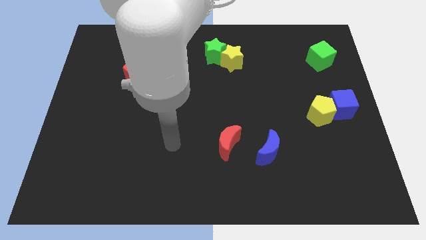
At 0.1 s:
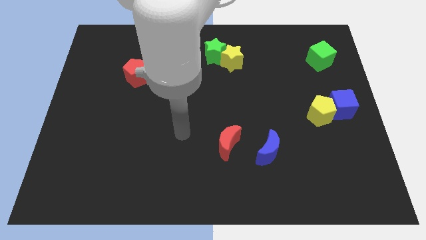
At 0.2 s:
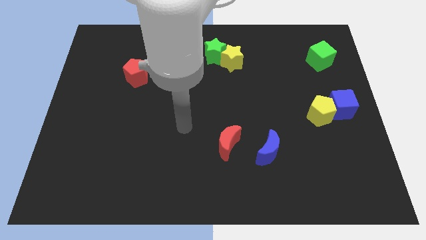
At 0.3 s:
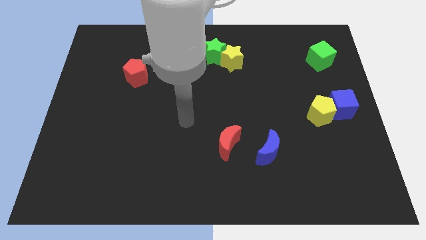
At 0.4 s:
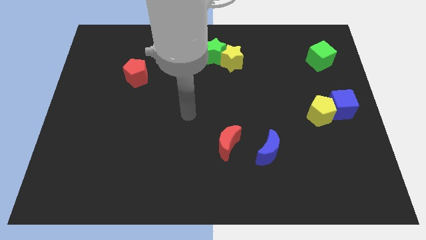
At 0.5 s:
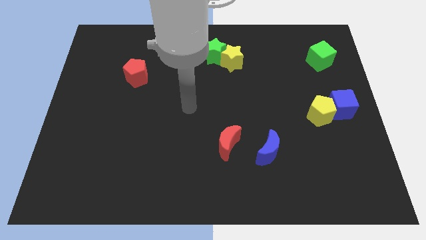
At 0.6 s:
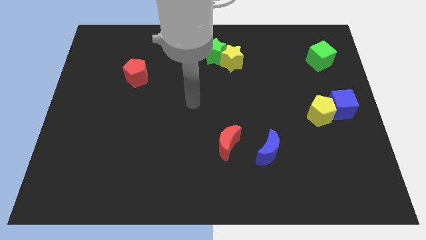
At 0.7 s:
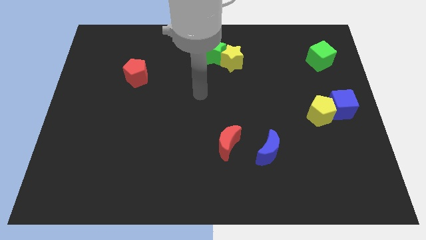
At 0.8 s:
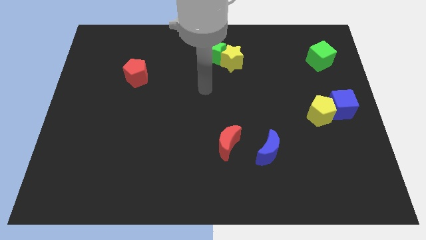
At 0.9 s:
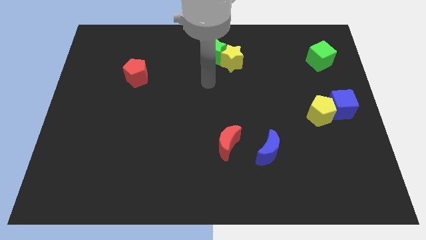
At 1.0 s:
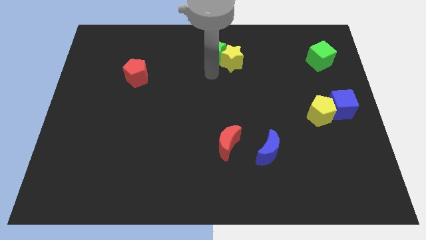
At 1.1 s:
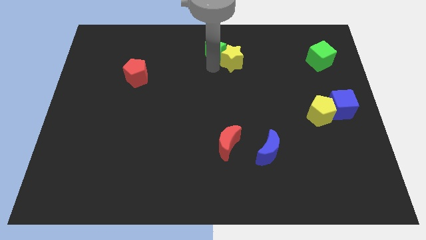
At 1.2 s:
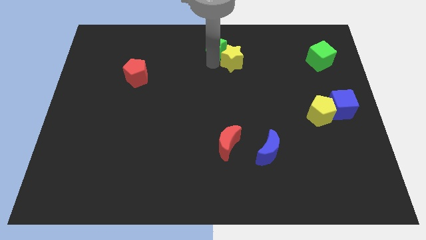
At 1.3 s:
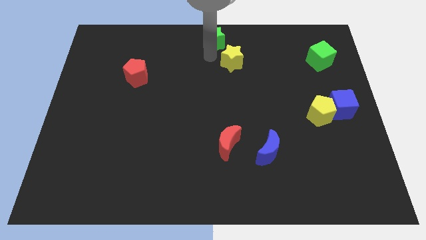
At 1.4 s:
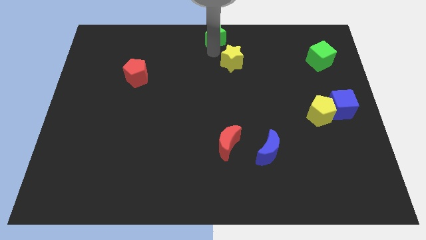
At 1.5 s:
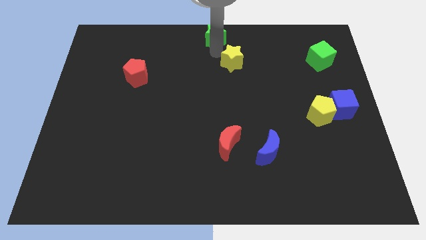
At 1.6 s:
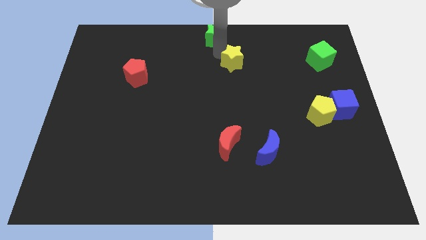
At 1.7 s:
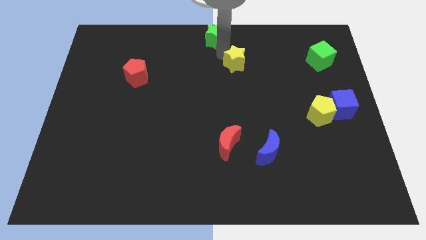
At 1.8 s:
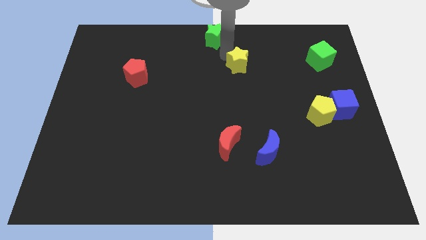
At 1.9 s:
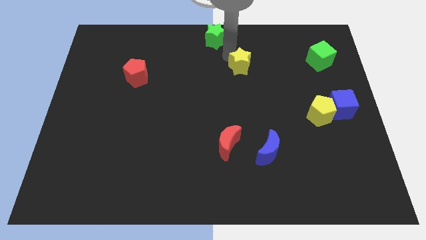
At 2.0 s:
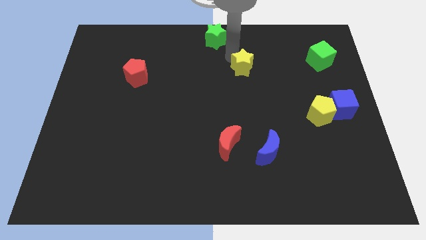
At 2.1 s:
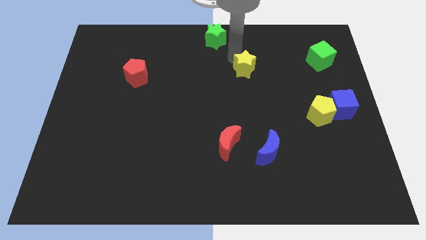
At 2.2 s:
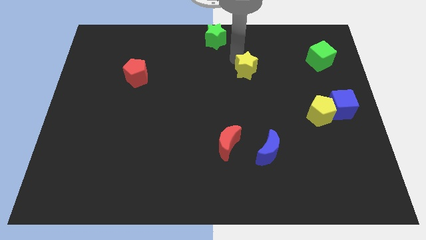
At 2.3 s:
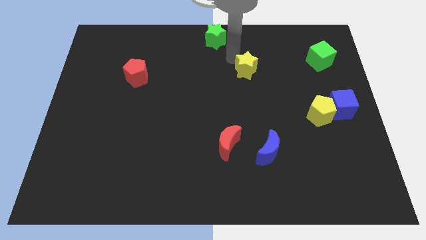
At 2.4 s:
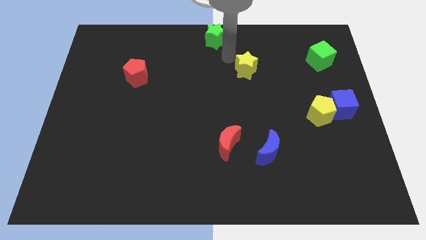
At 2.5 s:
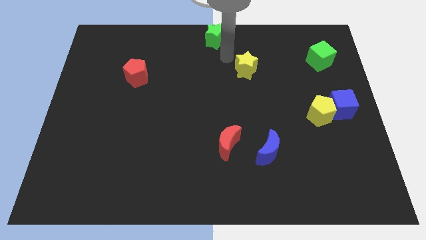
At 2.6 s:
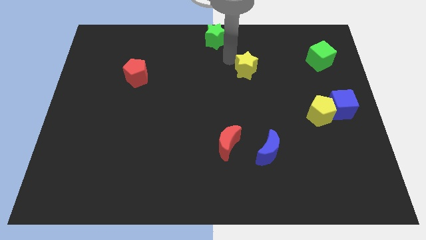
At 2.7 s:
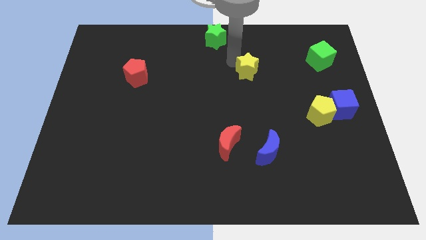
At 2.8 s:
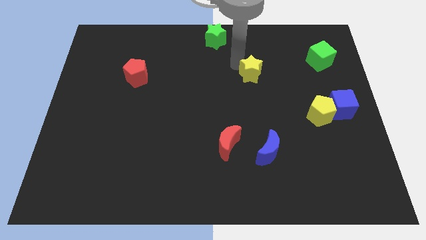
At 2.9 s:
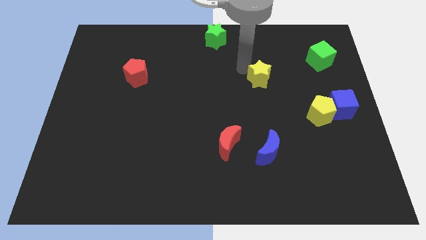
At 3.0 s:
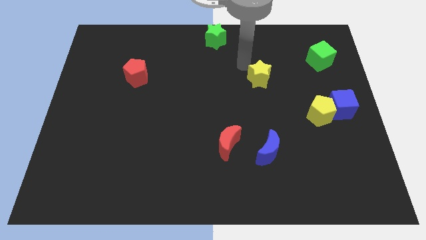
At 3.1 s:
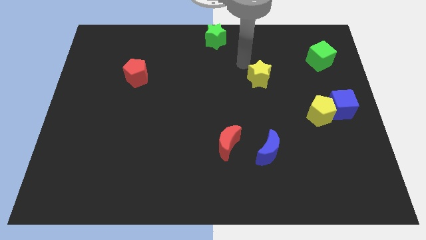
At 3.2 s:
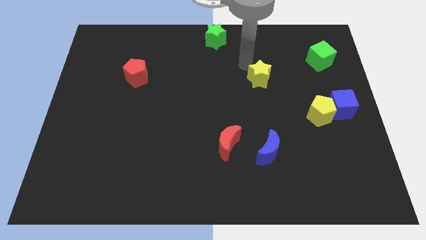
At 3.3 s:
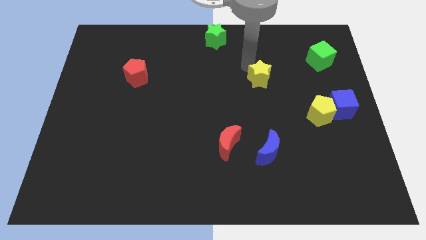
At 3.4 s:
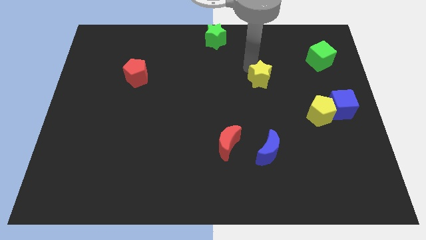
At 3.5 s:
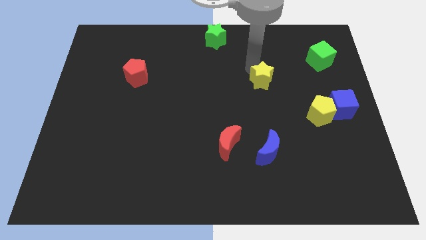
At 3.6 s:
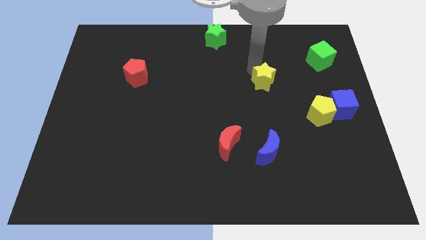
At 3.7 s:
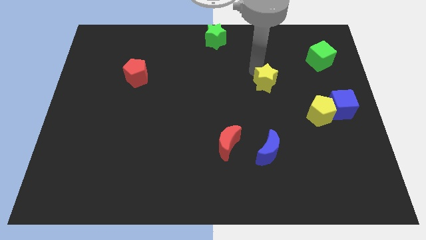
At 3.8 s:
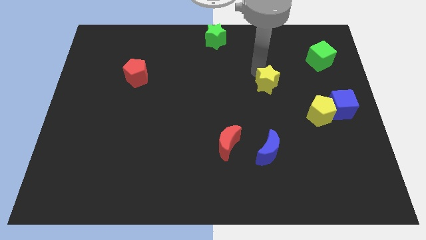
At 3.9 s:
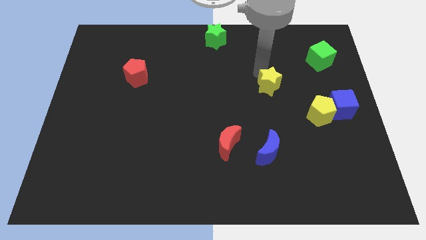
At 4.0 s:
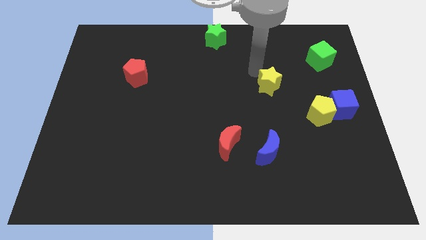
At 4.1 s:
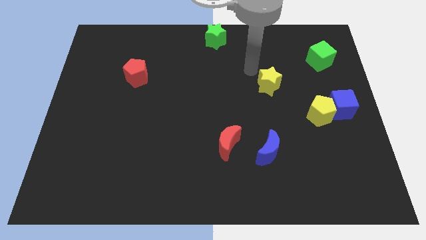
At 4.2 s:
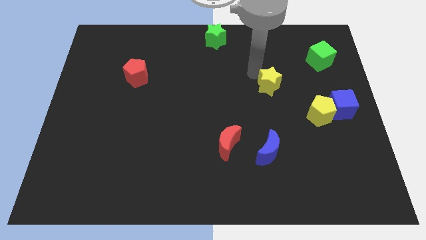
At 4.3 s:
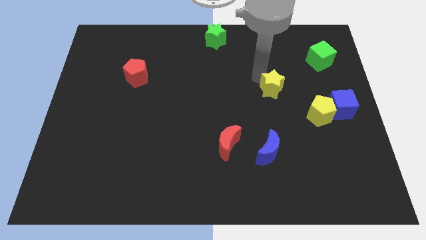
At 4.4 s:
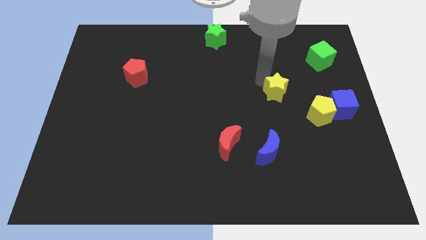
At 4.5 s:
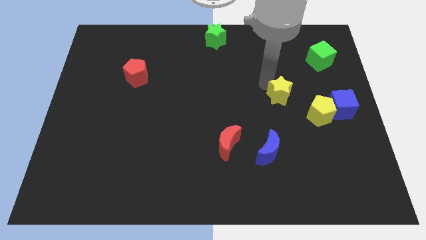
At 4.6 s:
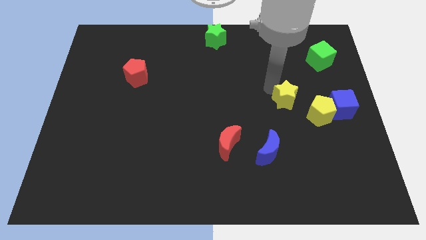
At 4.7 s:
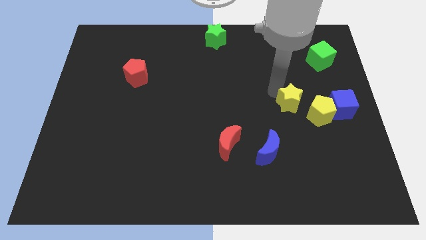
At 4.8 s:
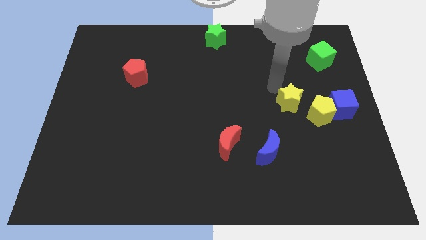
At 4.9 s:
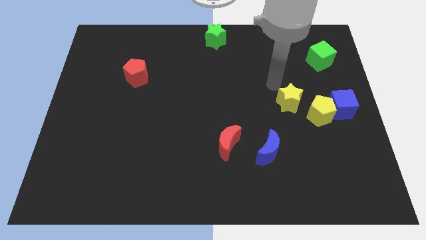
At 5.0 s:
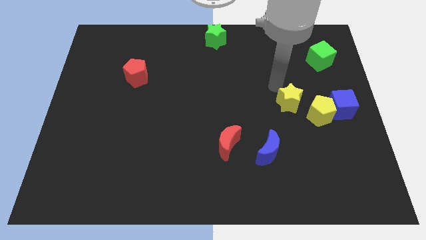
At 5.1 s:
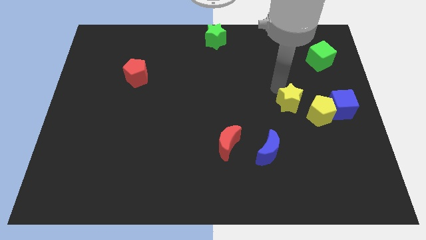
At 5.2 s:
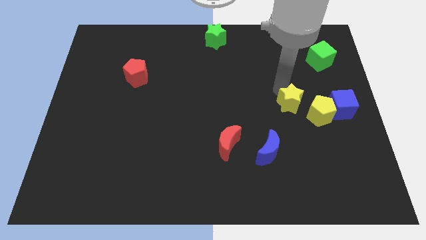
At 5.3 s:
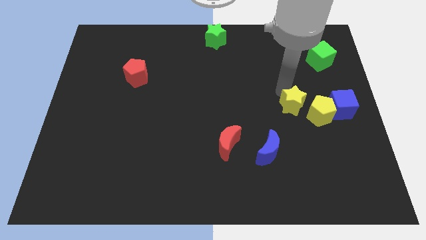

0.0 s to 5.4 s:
move the yellow star downwards and to the right diagonally

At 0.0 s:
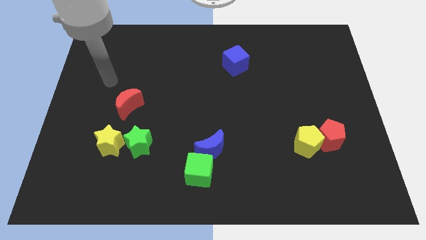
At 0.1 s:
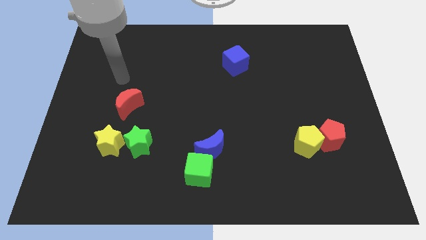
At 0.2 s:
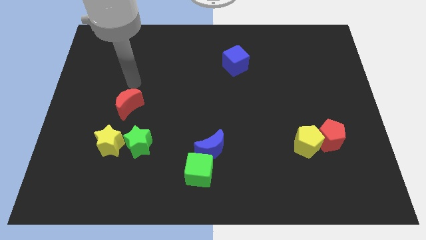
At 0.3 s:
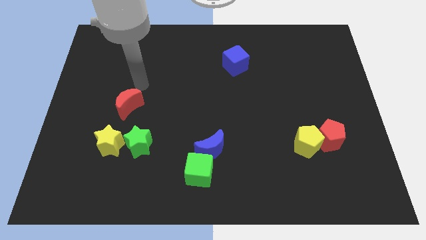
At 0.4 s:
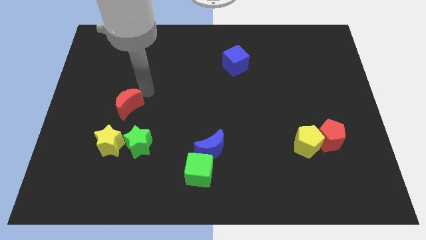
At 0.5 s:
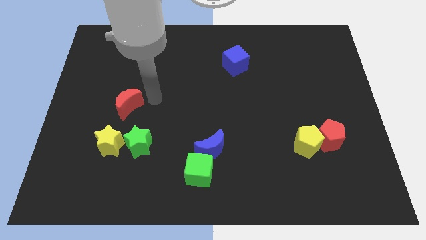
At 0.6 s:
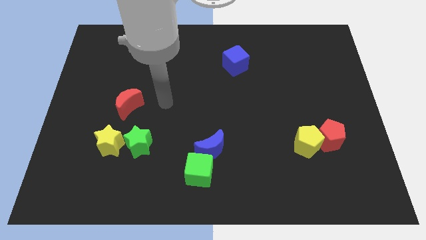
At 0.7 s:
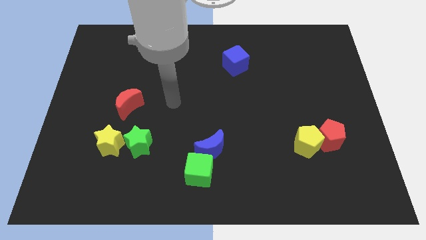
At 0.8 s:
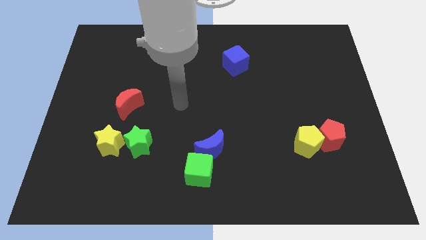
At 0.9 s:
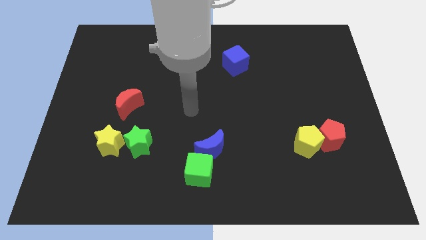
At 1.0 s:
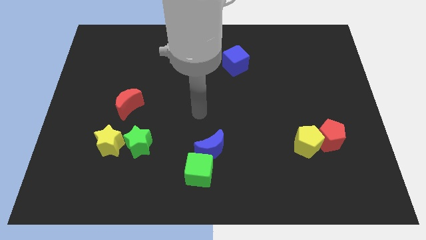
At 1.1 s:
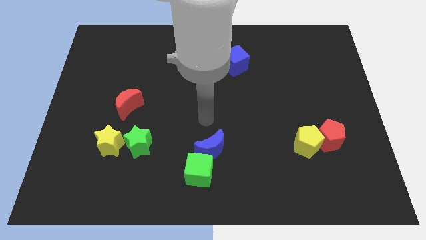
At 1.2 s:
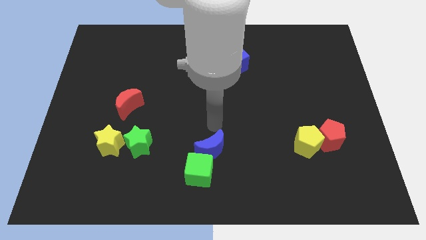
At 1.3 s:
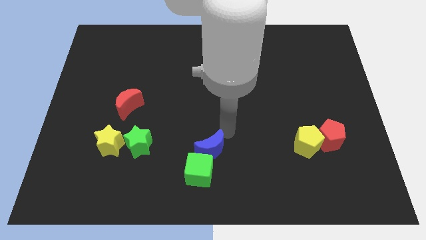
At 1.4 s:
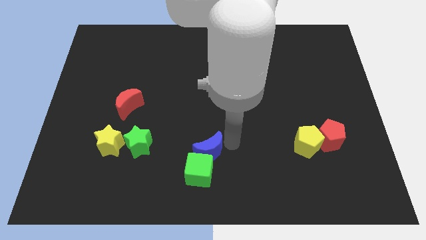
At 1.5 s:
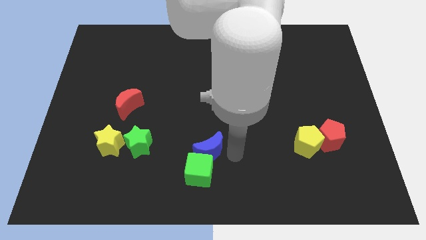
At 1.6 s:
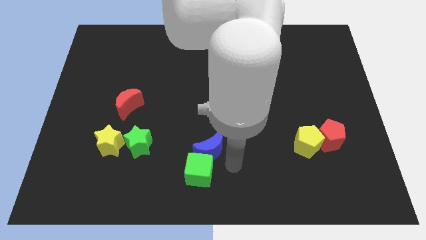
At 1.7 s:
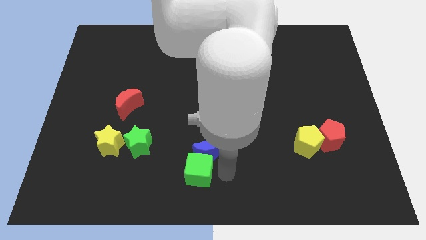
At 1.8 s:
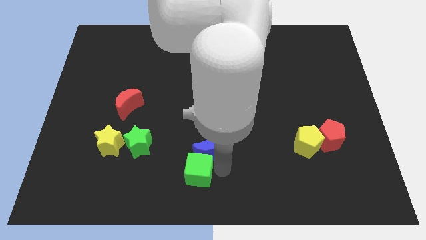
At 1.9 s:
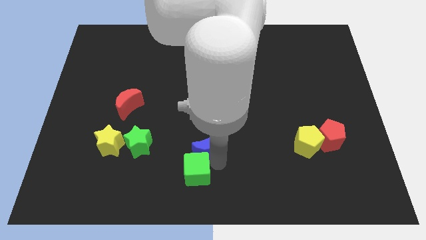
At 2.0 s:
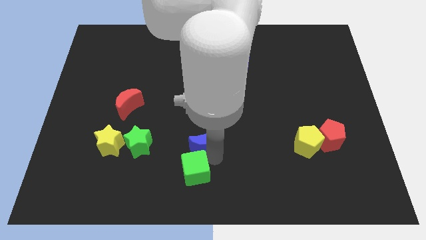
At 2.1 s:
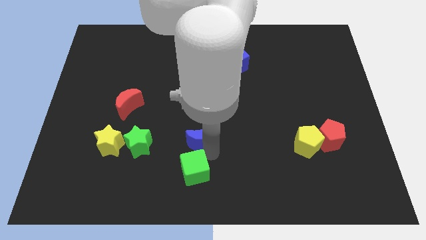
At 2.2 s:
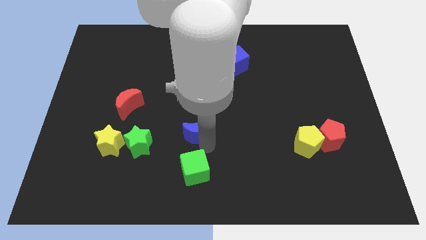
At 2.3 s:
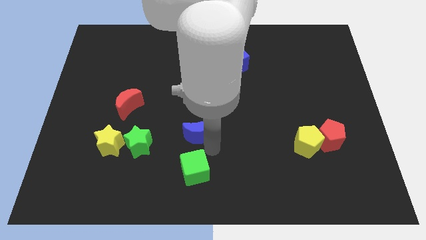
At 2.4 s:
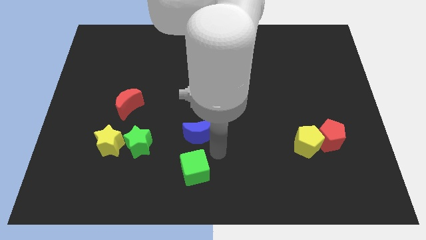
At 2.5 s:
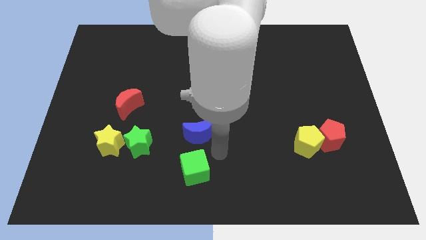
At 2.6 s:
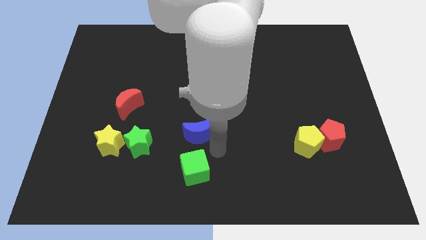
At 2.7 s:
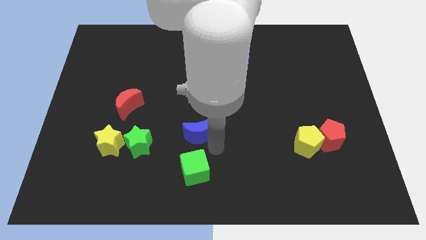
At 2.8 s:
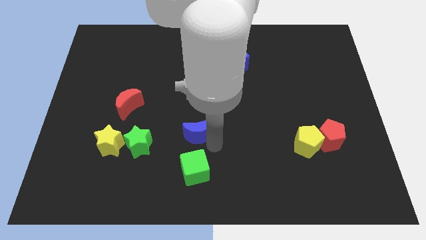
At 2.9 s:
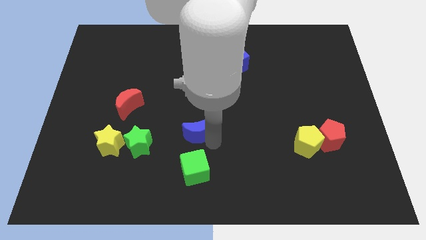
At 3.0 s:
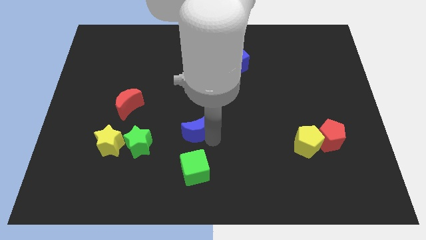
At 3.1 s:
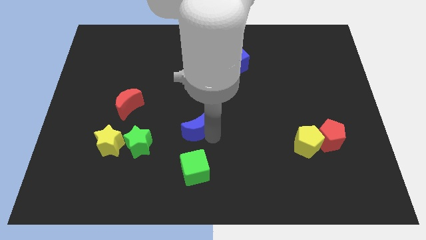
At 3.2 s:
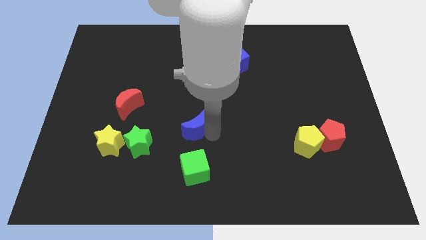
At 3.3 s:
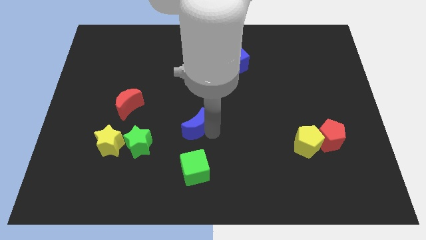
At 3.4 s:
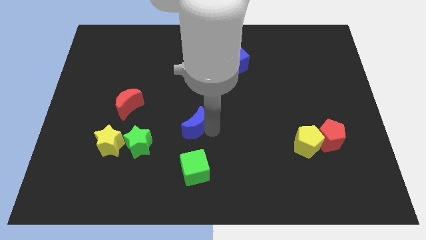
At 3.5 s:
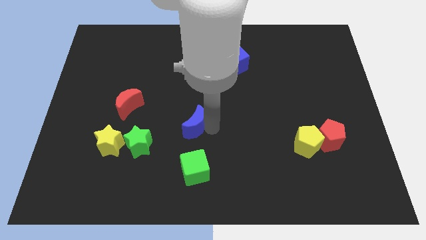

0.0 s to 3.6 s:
push the blue moon up and left a little bit
